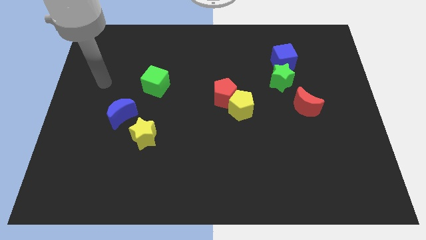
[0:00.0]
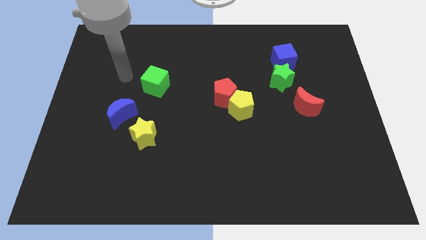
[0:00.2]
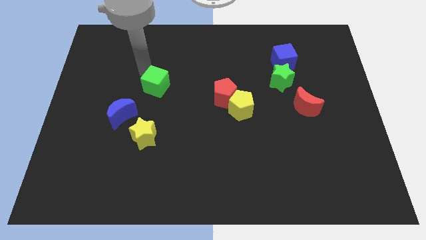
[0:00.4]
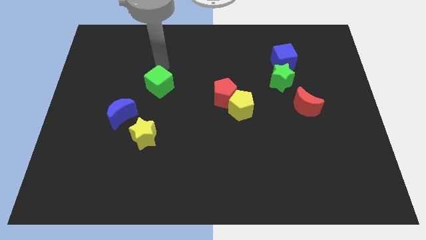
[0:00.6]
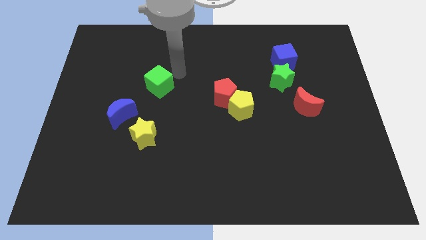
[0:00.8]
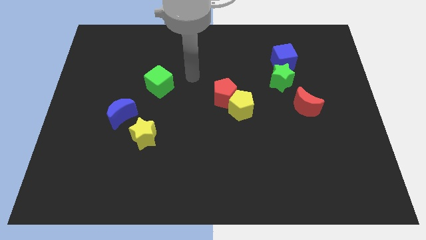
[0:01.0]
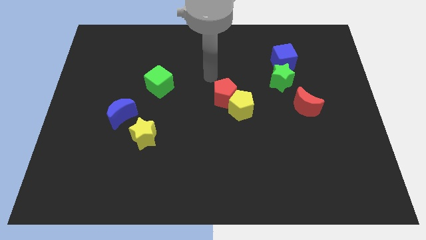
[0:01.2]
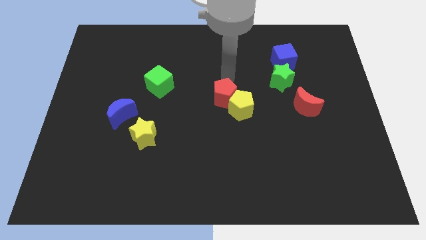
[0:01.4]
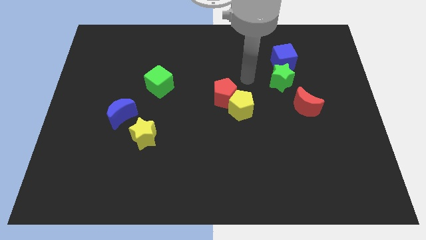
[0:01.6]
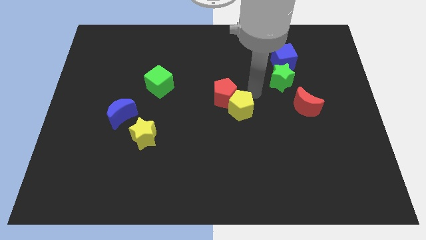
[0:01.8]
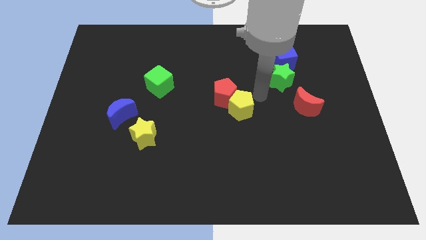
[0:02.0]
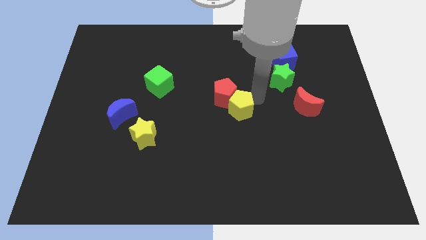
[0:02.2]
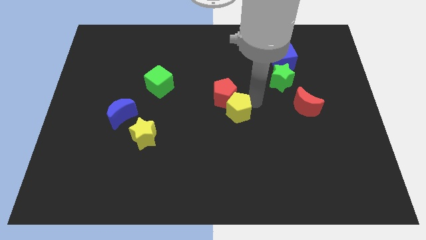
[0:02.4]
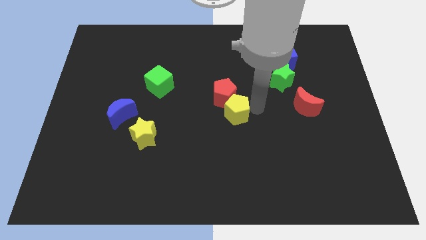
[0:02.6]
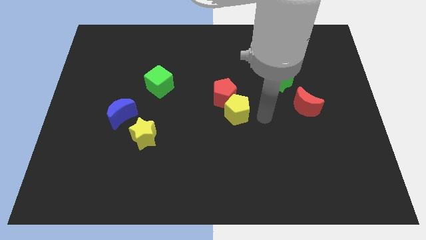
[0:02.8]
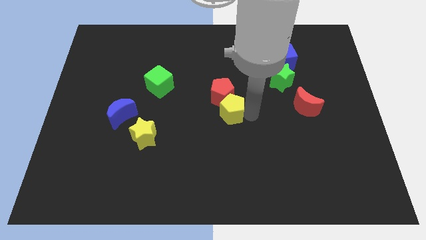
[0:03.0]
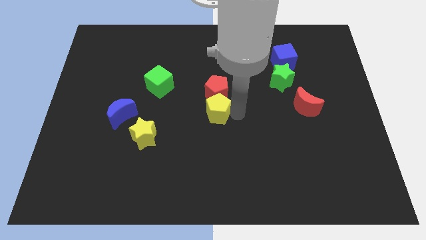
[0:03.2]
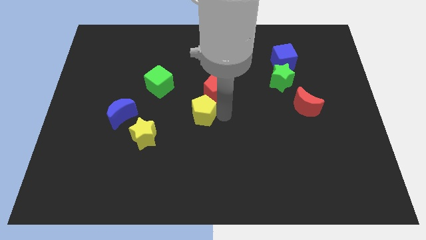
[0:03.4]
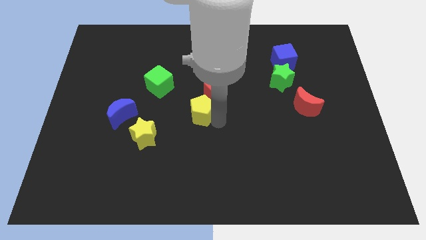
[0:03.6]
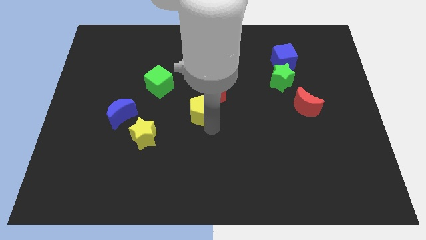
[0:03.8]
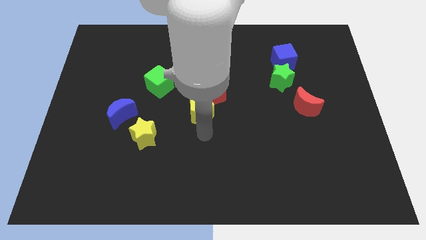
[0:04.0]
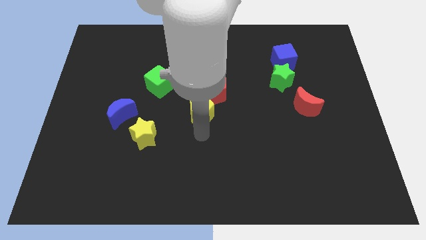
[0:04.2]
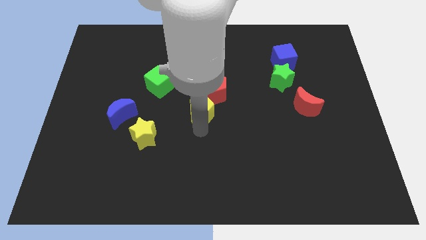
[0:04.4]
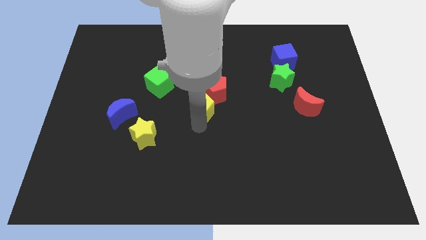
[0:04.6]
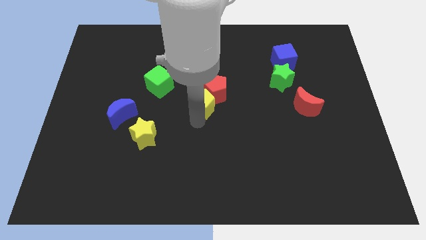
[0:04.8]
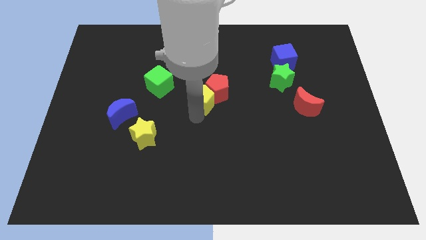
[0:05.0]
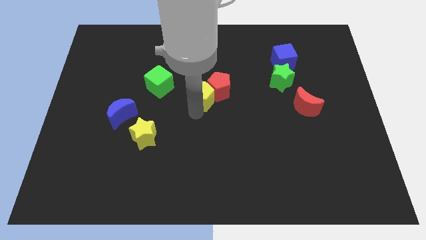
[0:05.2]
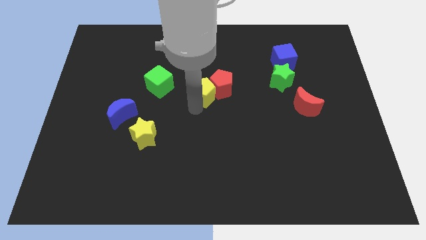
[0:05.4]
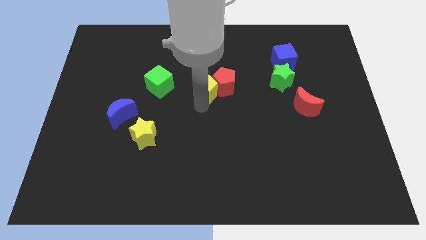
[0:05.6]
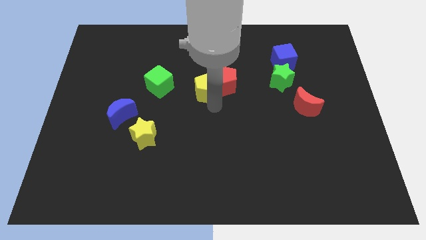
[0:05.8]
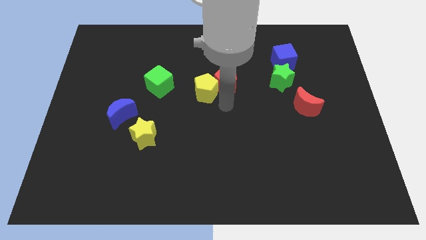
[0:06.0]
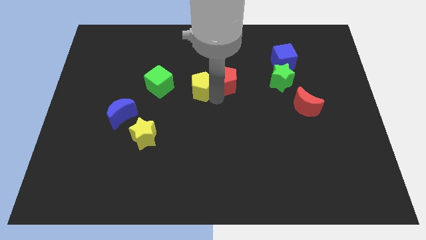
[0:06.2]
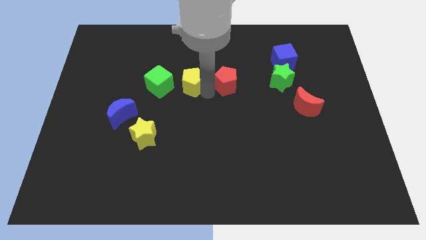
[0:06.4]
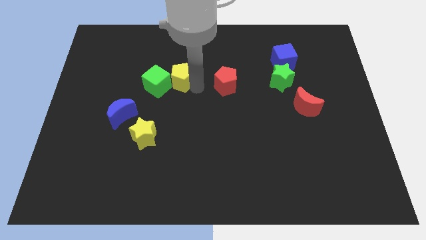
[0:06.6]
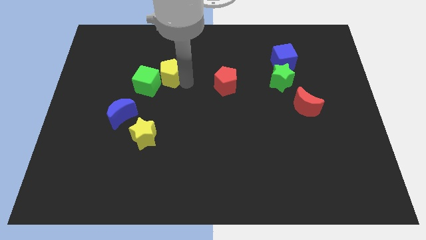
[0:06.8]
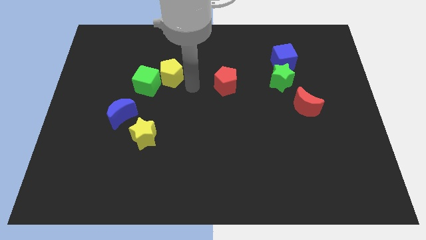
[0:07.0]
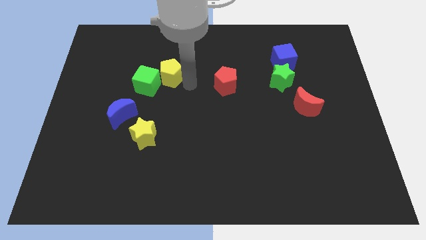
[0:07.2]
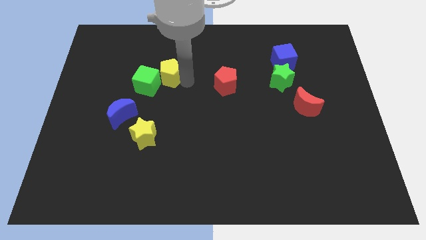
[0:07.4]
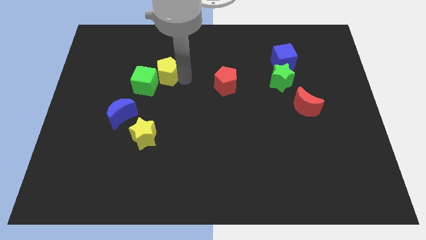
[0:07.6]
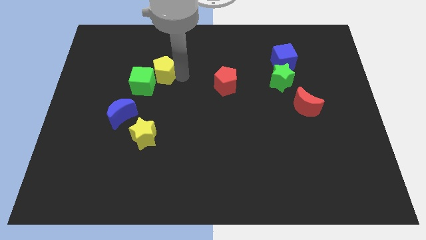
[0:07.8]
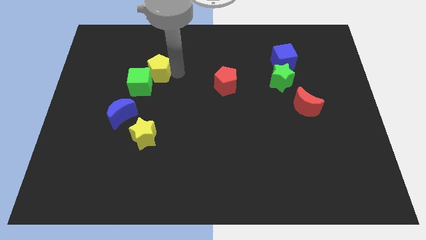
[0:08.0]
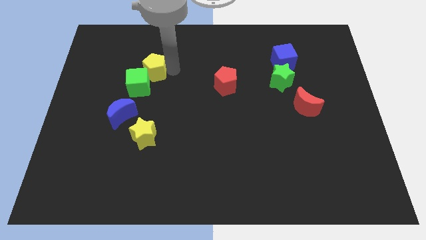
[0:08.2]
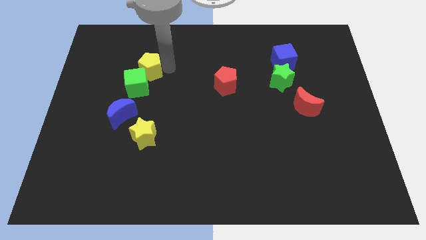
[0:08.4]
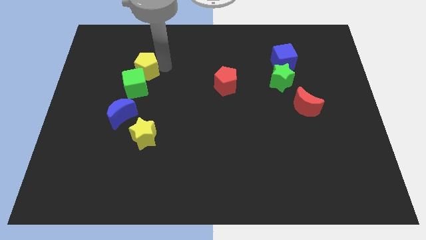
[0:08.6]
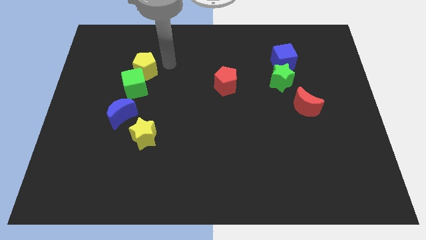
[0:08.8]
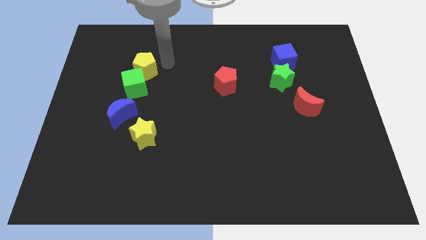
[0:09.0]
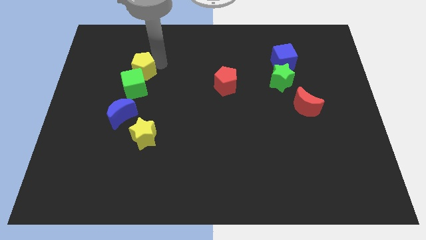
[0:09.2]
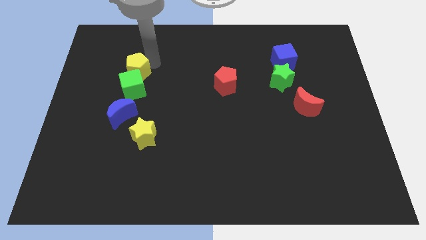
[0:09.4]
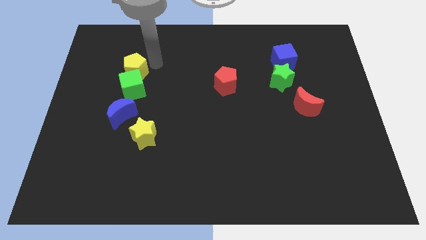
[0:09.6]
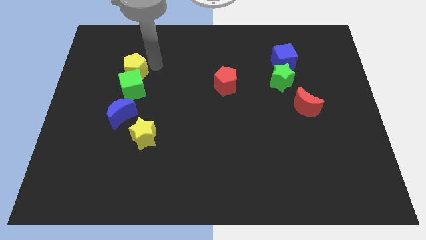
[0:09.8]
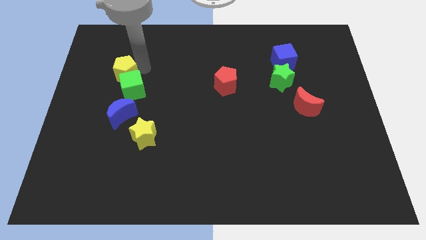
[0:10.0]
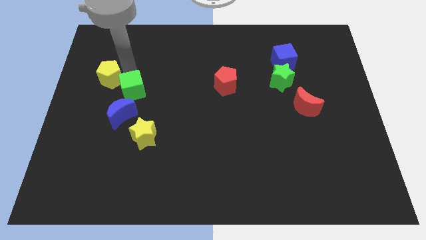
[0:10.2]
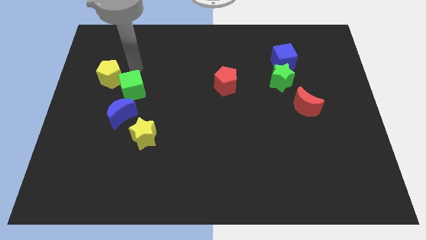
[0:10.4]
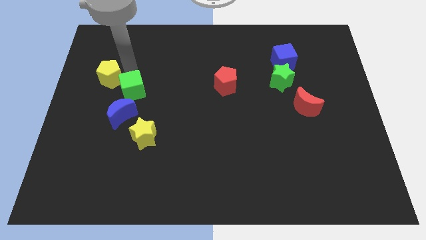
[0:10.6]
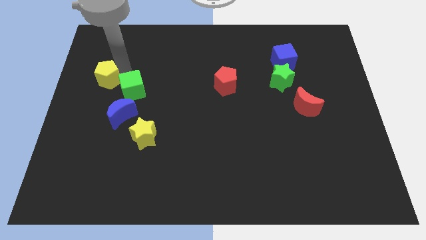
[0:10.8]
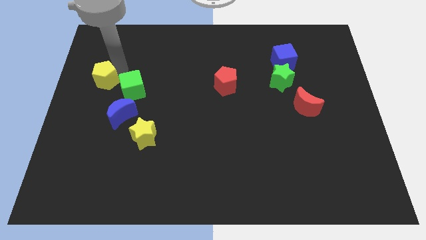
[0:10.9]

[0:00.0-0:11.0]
slide the yellow pentagon to the left side of the board

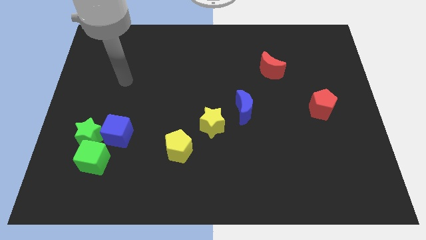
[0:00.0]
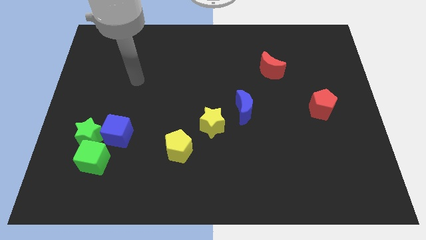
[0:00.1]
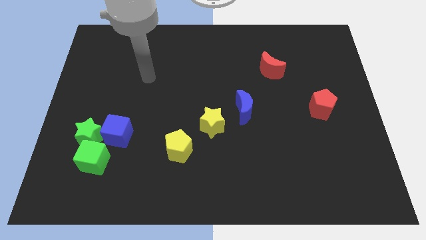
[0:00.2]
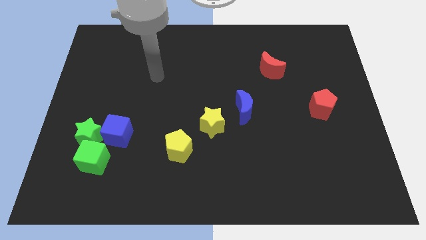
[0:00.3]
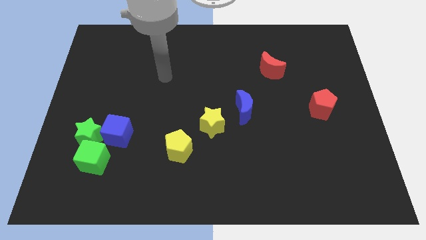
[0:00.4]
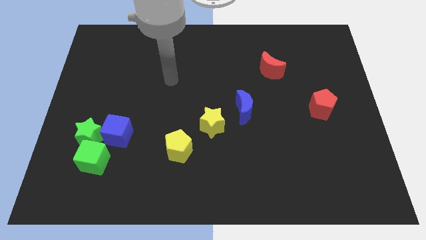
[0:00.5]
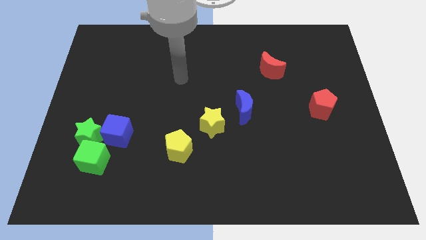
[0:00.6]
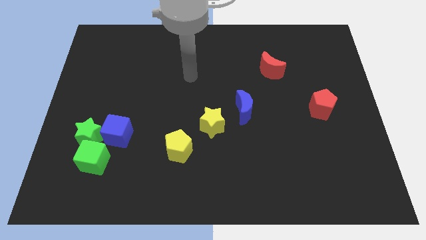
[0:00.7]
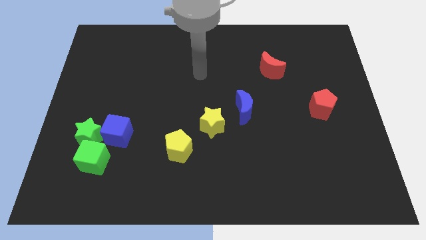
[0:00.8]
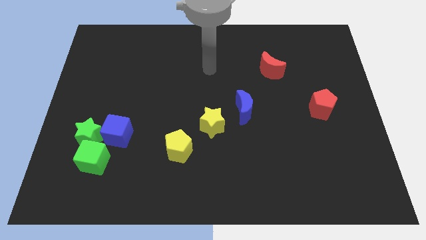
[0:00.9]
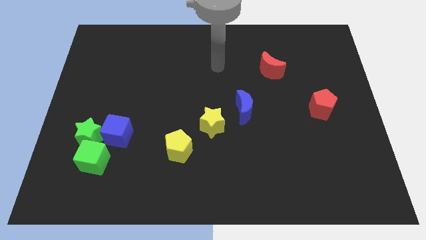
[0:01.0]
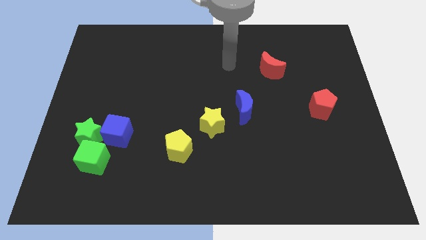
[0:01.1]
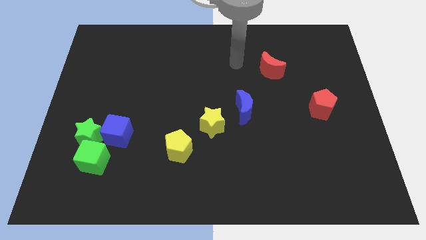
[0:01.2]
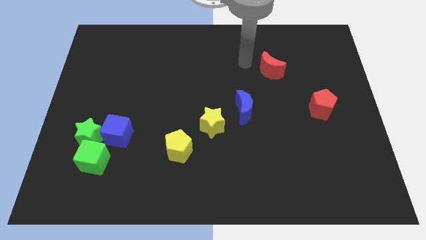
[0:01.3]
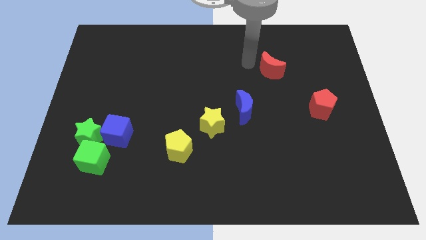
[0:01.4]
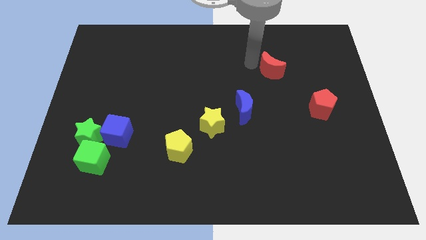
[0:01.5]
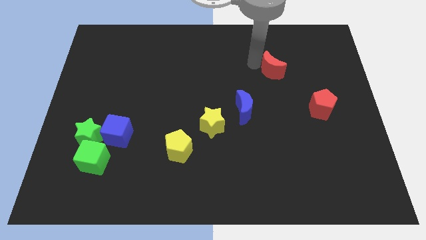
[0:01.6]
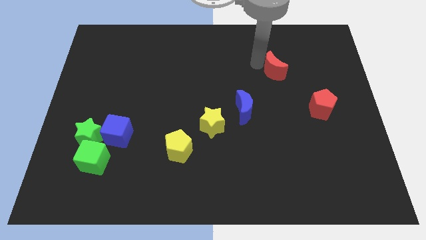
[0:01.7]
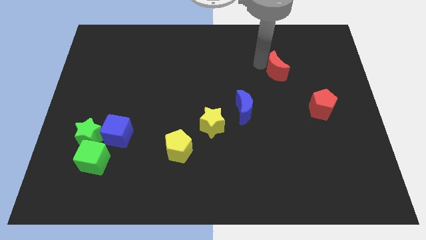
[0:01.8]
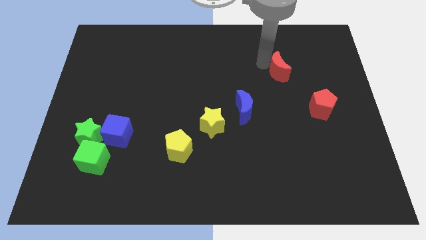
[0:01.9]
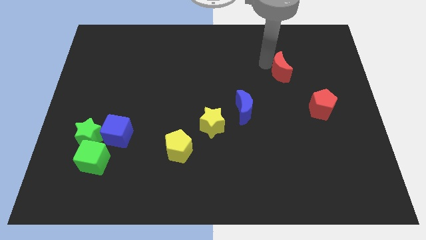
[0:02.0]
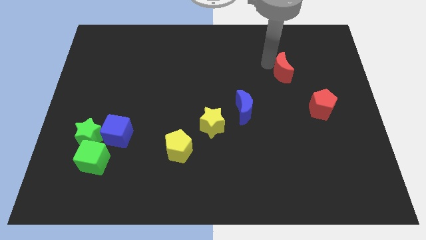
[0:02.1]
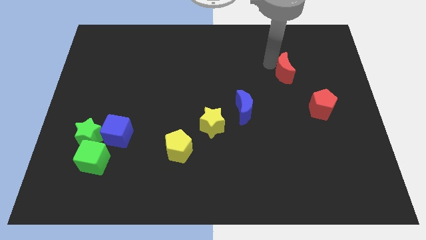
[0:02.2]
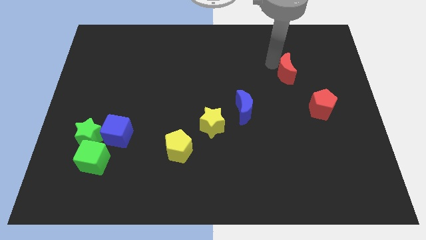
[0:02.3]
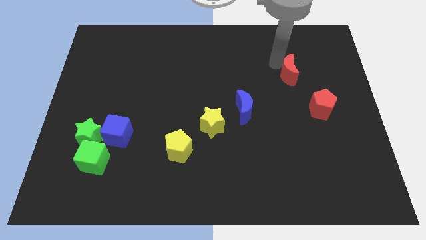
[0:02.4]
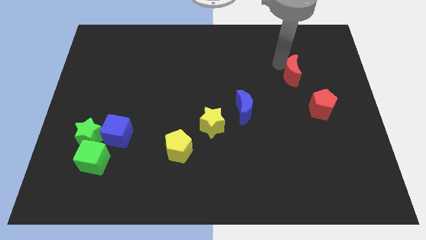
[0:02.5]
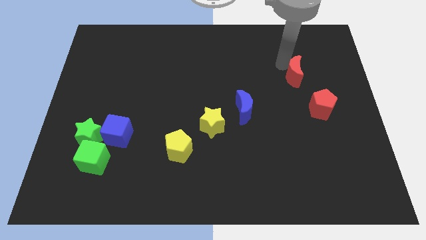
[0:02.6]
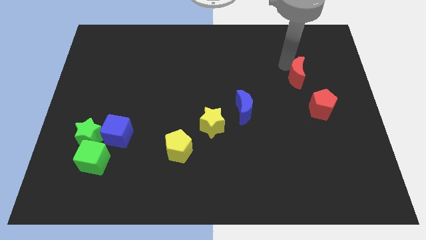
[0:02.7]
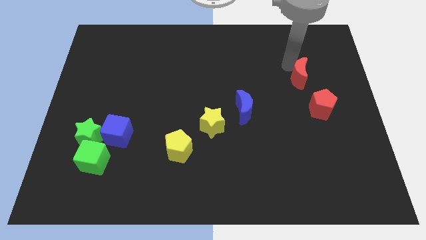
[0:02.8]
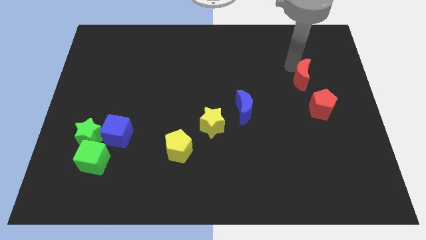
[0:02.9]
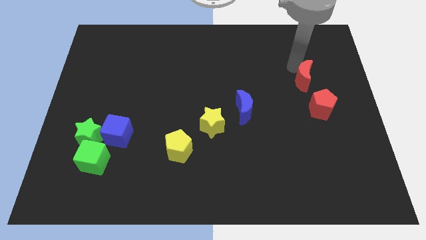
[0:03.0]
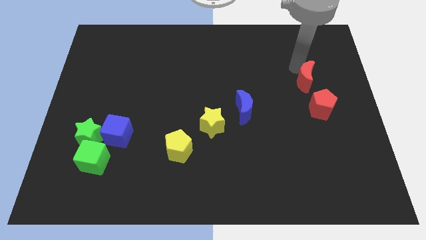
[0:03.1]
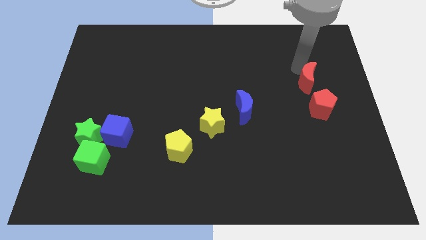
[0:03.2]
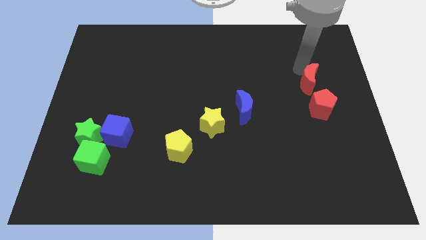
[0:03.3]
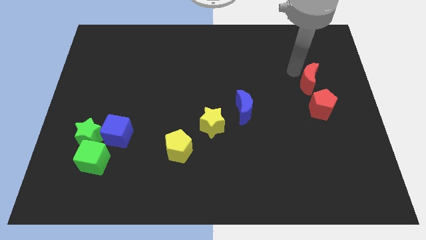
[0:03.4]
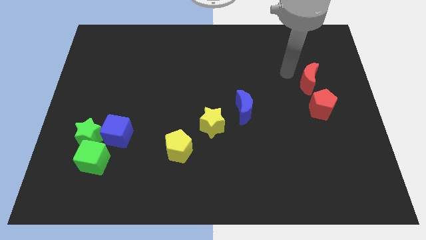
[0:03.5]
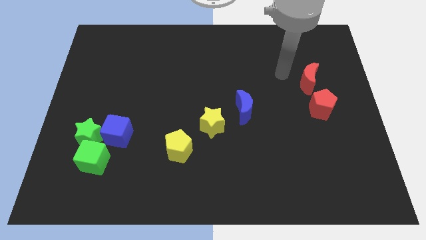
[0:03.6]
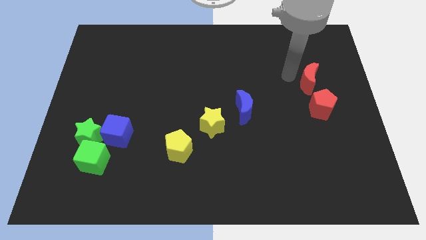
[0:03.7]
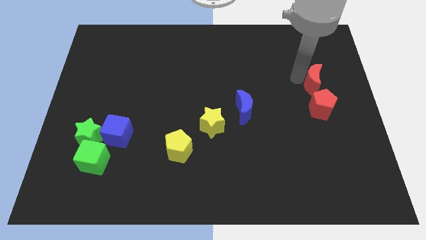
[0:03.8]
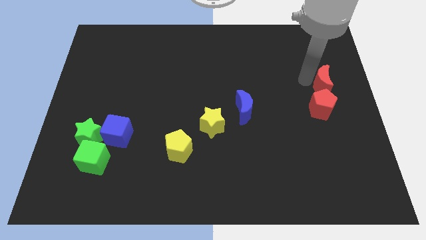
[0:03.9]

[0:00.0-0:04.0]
put the red moon to the center right
